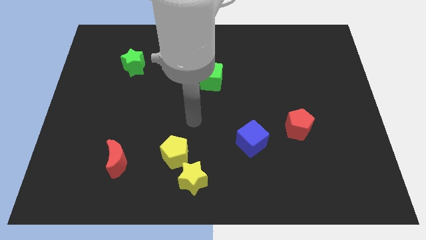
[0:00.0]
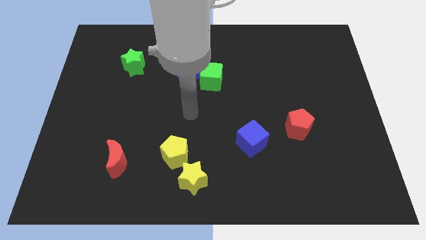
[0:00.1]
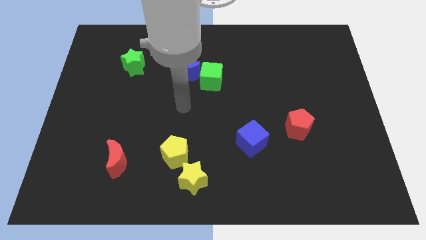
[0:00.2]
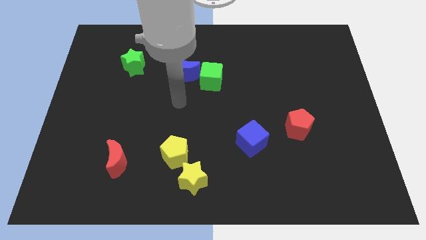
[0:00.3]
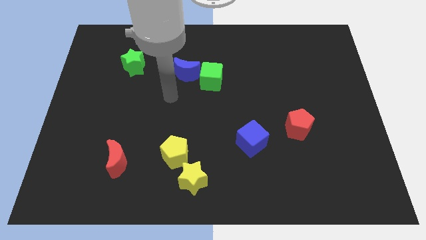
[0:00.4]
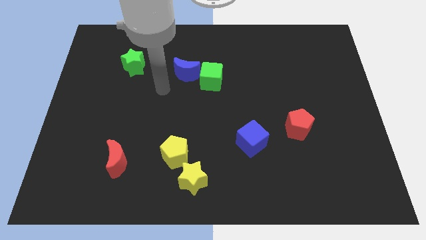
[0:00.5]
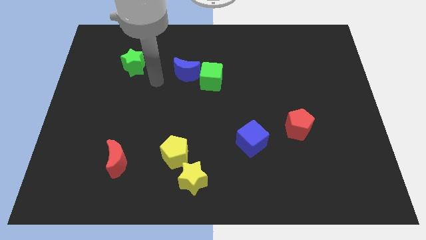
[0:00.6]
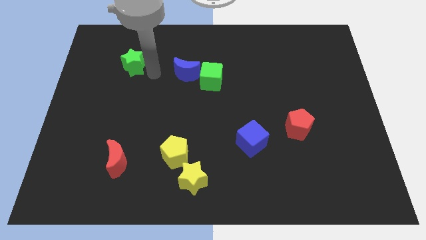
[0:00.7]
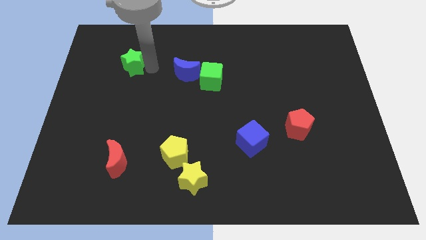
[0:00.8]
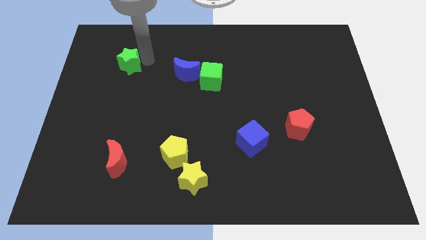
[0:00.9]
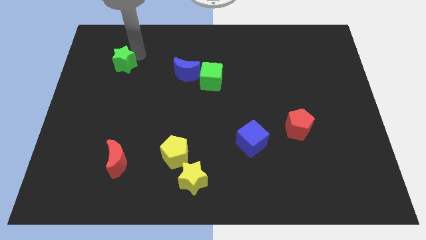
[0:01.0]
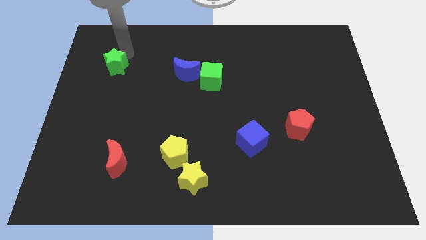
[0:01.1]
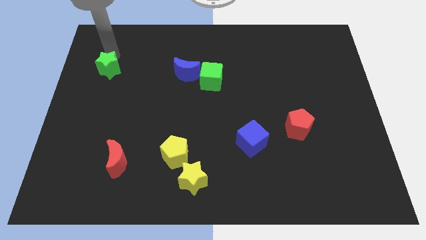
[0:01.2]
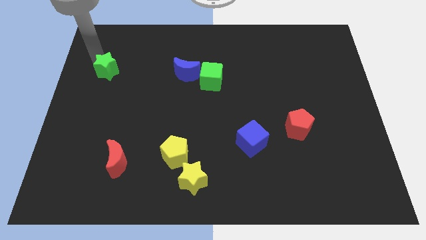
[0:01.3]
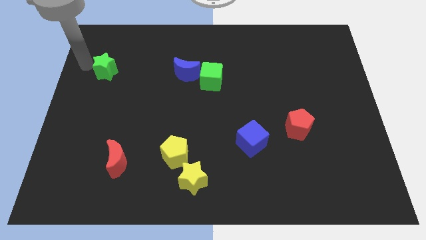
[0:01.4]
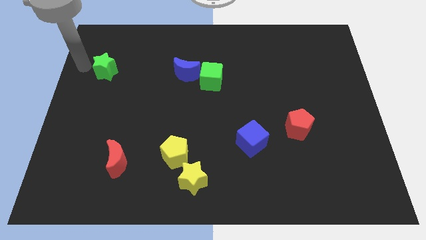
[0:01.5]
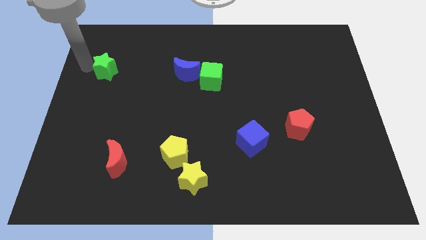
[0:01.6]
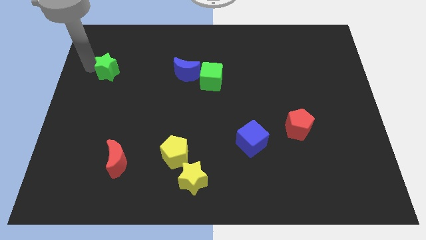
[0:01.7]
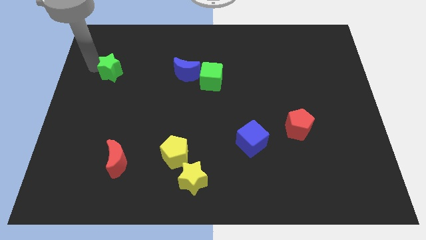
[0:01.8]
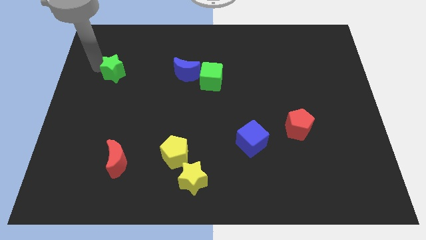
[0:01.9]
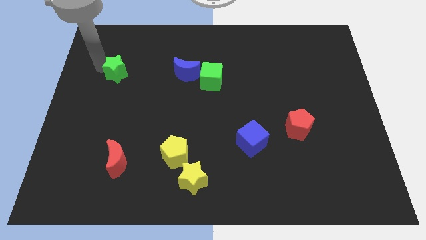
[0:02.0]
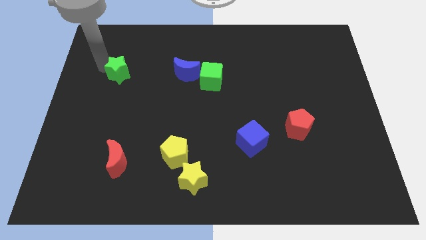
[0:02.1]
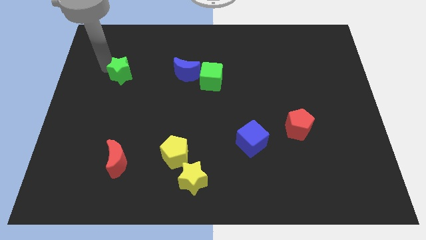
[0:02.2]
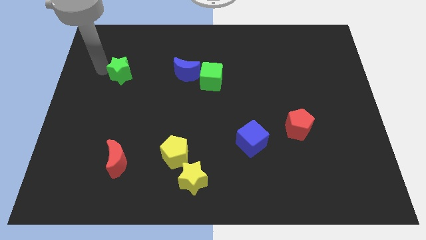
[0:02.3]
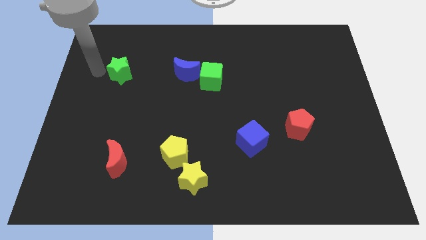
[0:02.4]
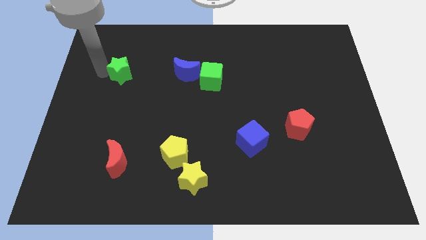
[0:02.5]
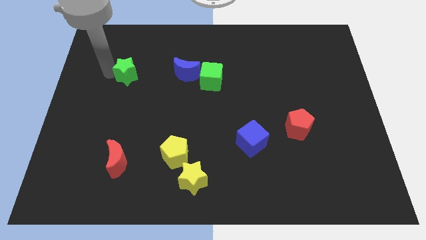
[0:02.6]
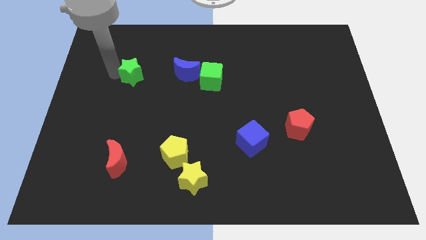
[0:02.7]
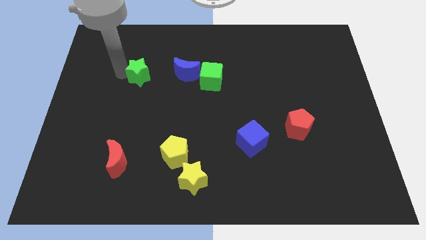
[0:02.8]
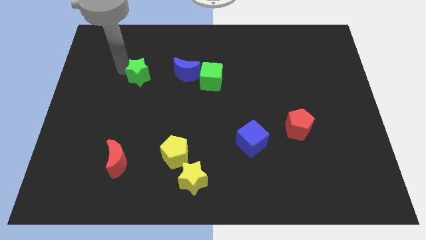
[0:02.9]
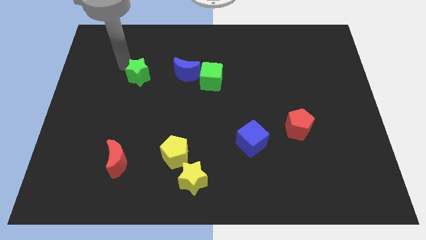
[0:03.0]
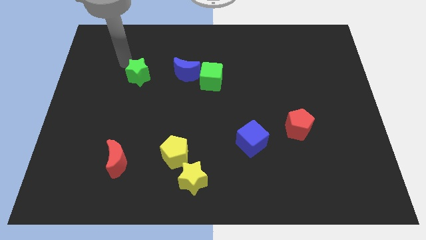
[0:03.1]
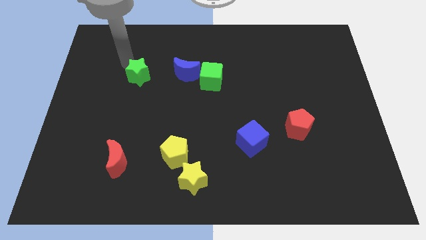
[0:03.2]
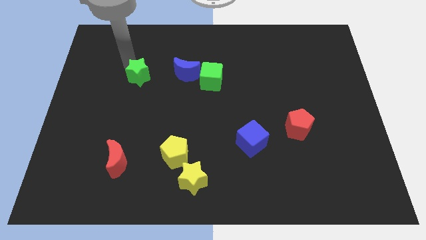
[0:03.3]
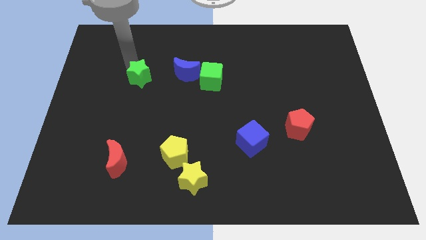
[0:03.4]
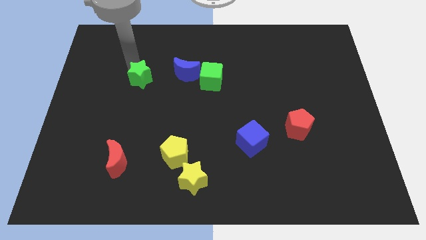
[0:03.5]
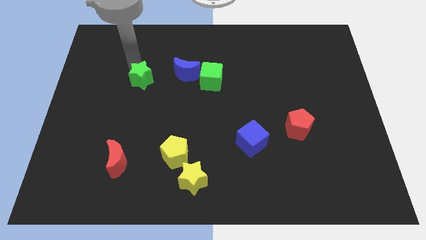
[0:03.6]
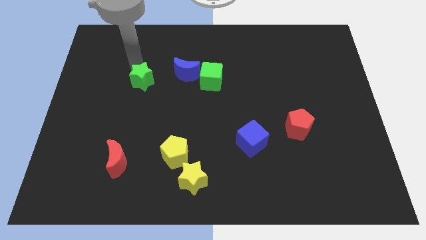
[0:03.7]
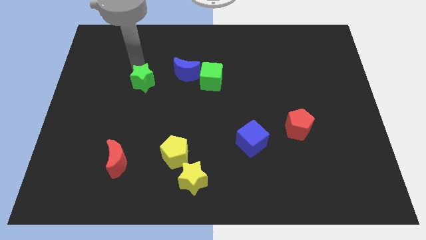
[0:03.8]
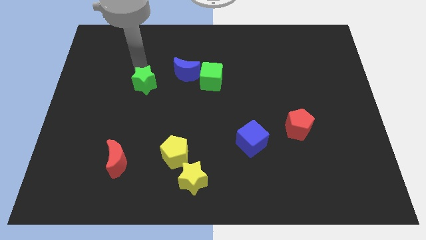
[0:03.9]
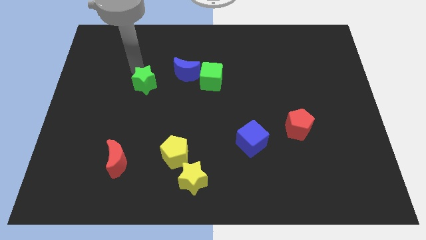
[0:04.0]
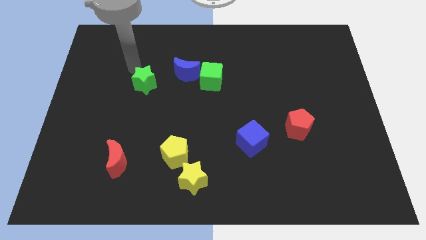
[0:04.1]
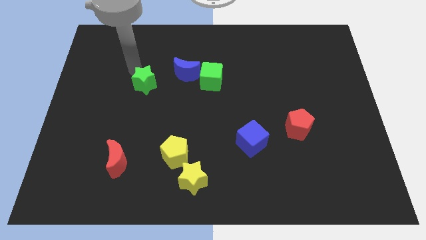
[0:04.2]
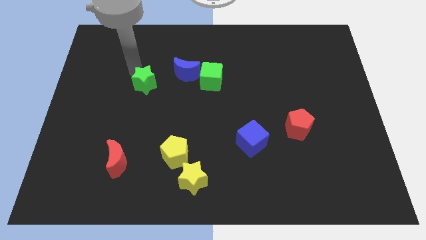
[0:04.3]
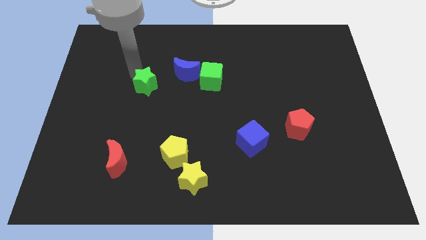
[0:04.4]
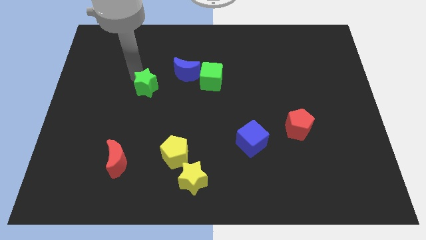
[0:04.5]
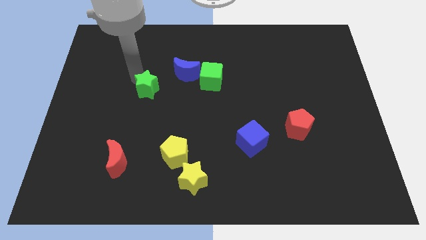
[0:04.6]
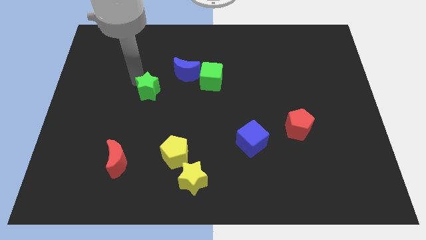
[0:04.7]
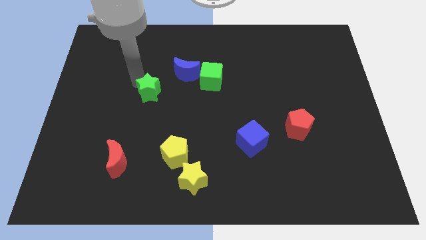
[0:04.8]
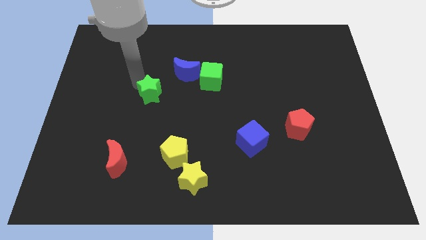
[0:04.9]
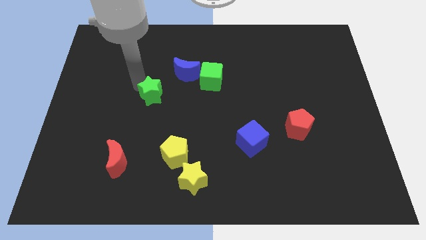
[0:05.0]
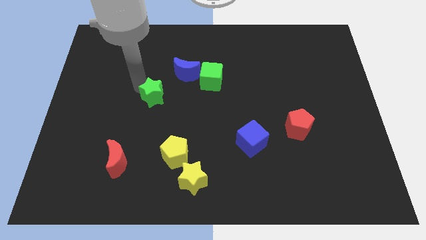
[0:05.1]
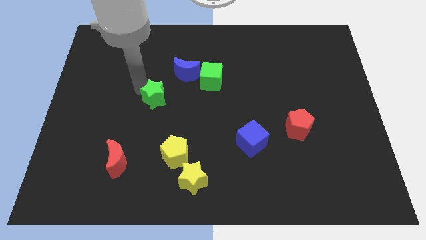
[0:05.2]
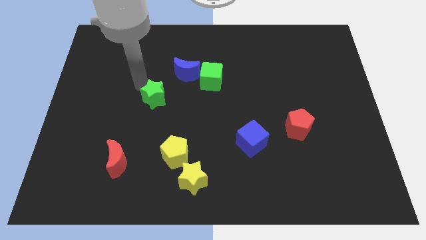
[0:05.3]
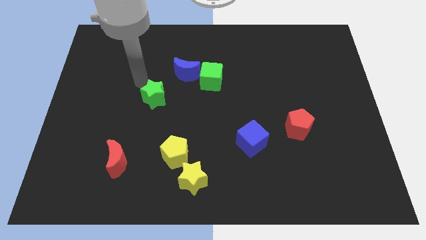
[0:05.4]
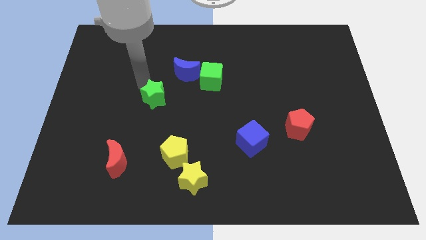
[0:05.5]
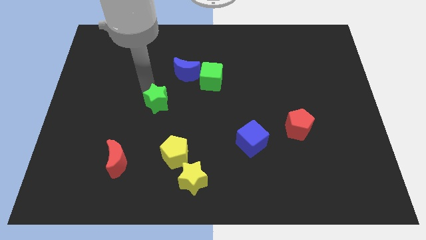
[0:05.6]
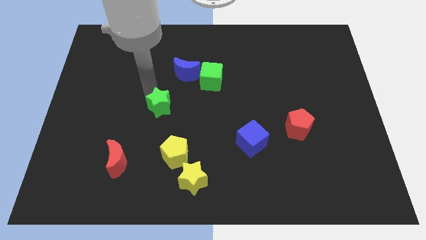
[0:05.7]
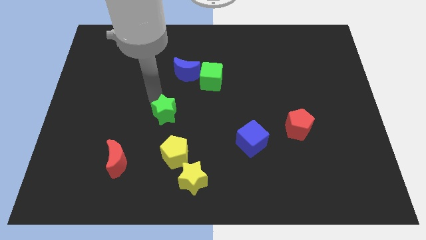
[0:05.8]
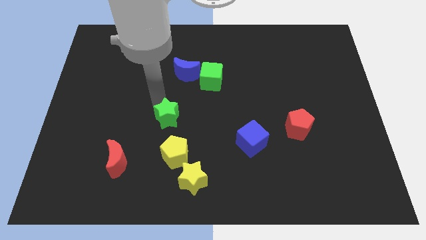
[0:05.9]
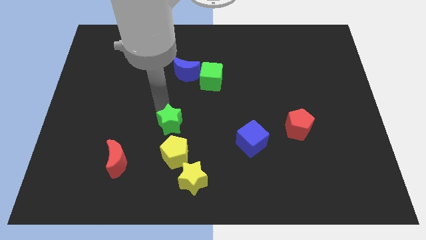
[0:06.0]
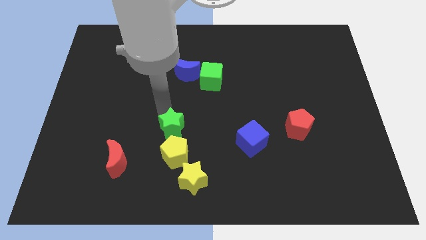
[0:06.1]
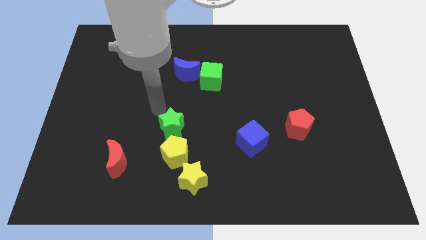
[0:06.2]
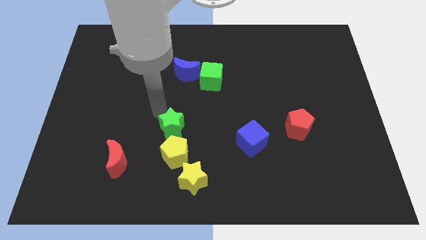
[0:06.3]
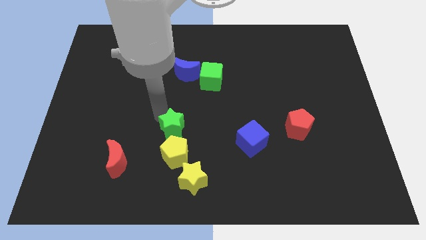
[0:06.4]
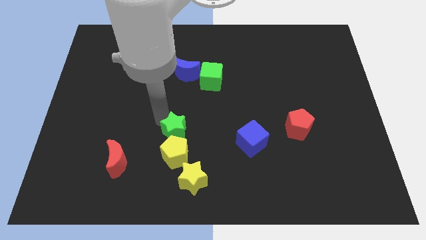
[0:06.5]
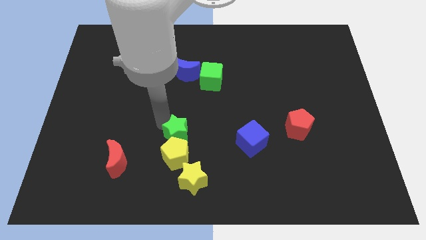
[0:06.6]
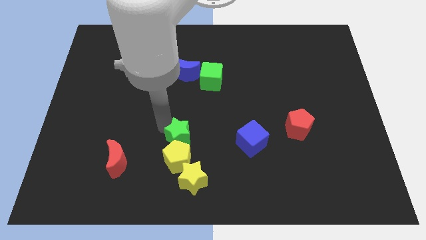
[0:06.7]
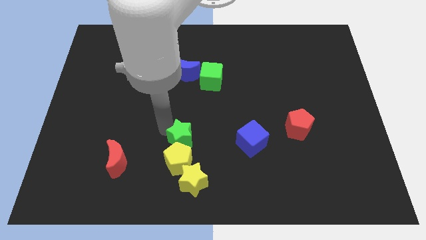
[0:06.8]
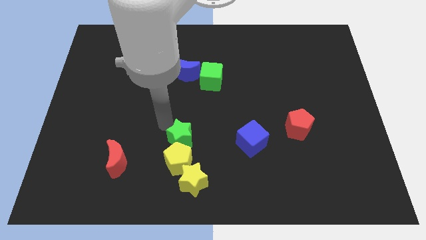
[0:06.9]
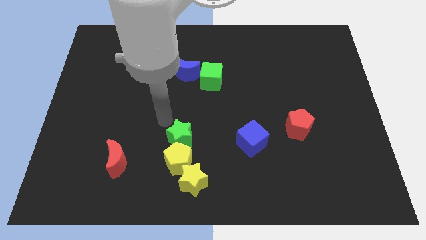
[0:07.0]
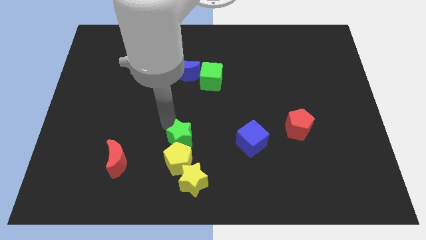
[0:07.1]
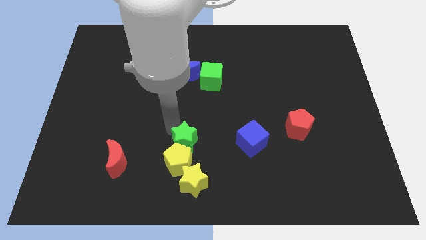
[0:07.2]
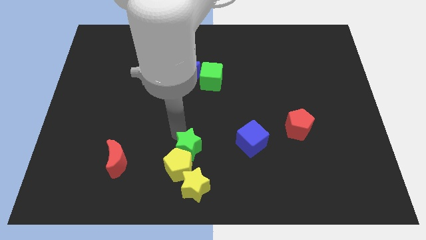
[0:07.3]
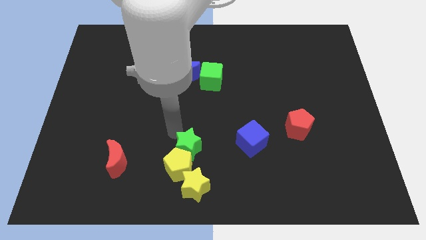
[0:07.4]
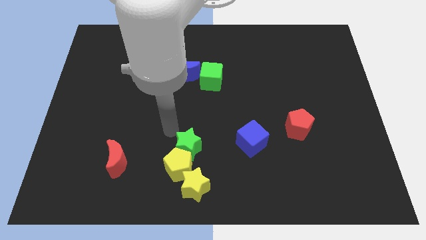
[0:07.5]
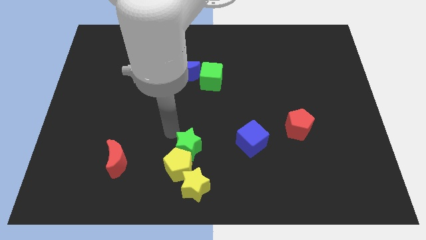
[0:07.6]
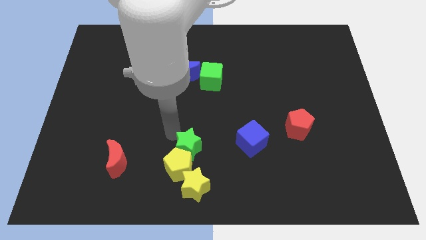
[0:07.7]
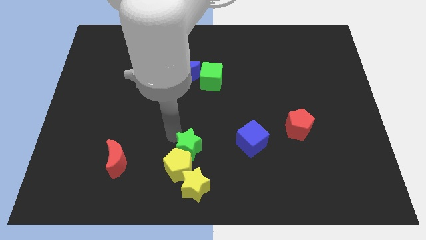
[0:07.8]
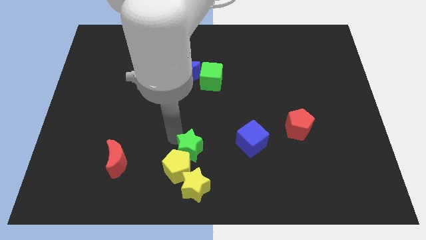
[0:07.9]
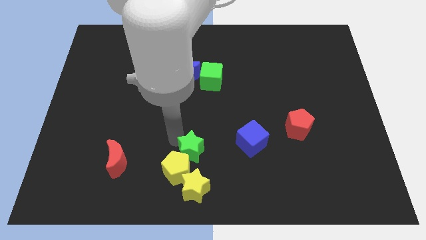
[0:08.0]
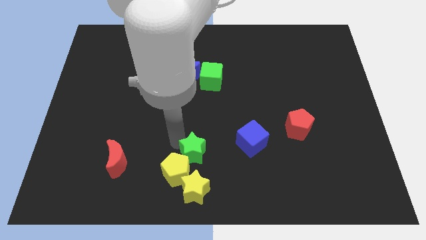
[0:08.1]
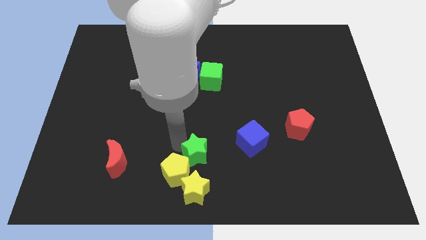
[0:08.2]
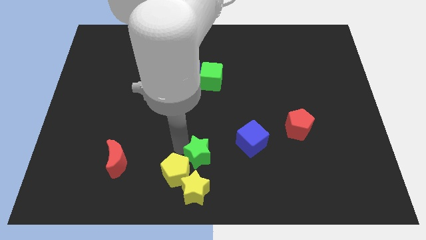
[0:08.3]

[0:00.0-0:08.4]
move the green star to the bottom side
